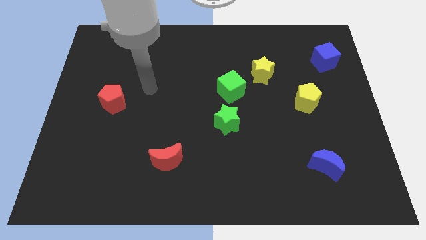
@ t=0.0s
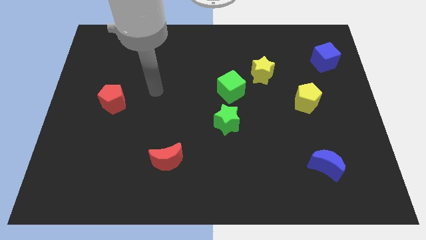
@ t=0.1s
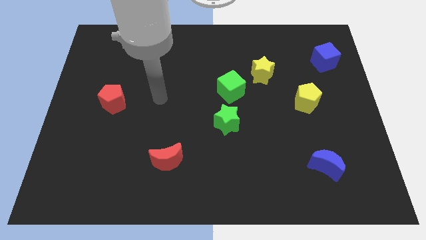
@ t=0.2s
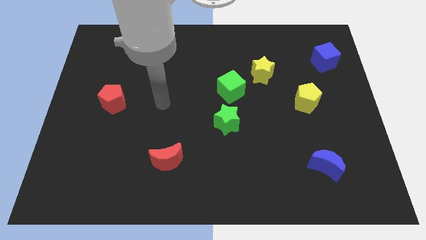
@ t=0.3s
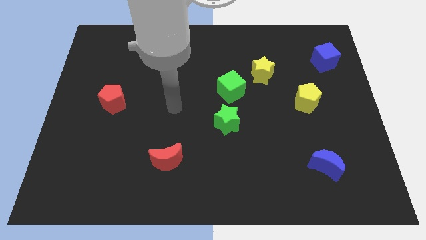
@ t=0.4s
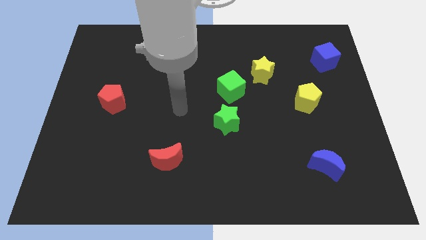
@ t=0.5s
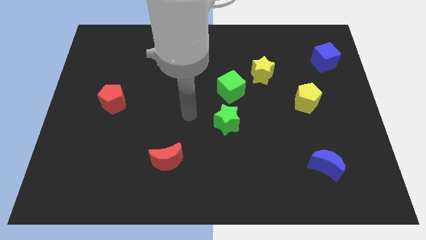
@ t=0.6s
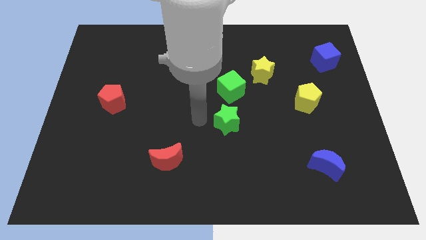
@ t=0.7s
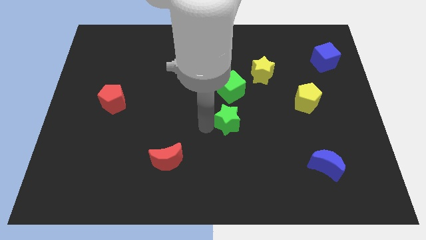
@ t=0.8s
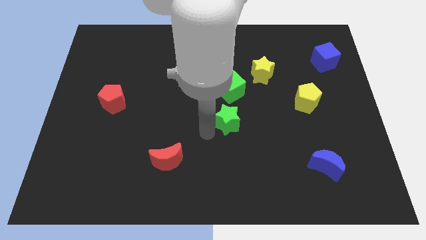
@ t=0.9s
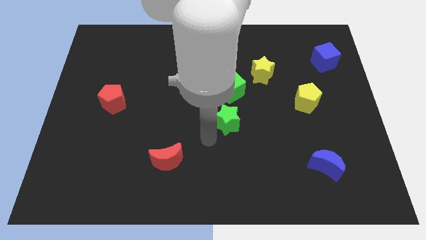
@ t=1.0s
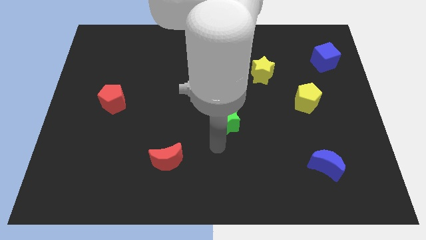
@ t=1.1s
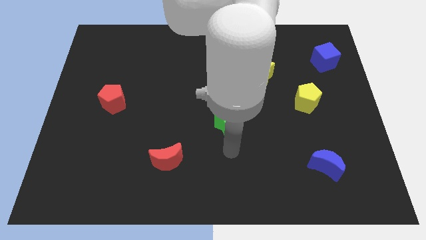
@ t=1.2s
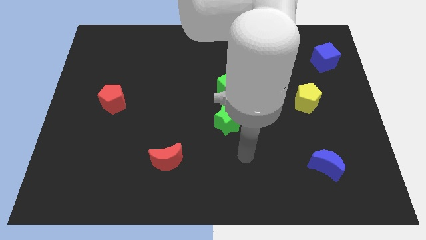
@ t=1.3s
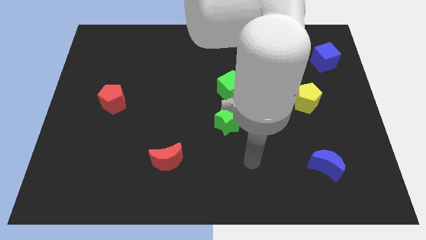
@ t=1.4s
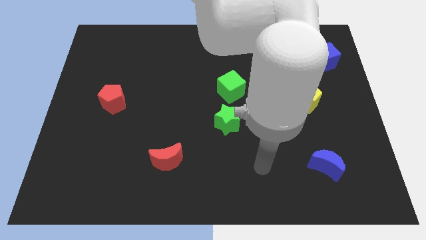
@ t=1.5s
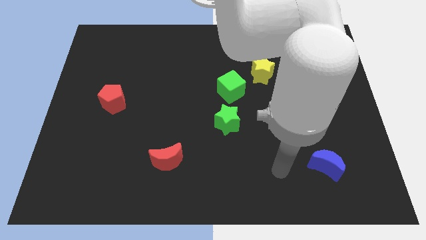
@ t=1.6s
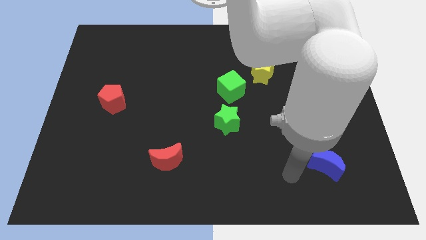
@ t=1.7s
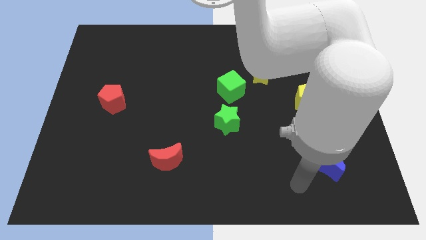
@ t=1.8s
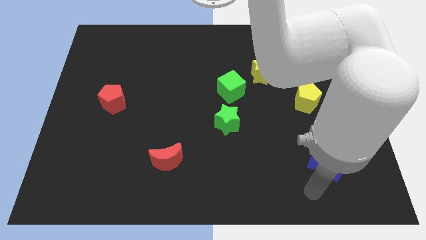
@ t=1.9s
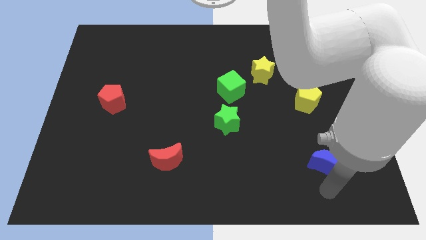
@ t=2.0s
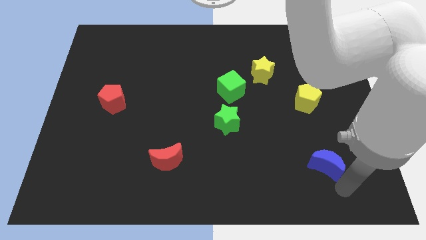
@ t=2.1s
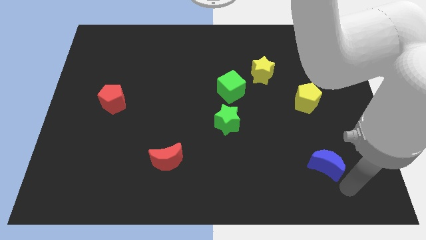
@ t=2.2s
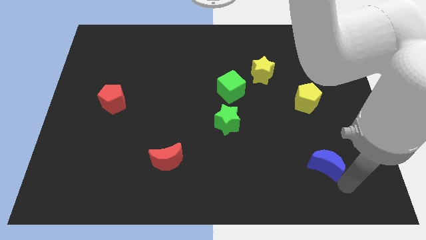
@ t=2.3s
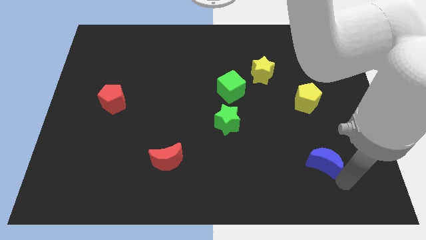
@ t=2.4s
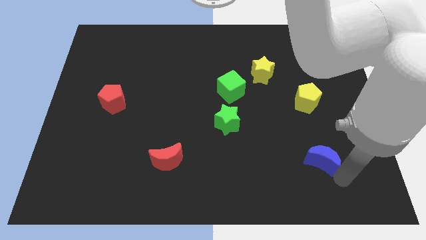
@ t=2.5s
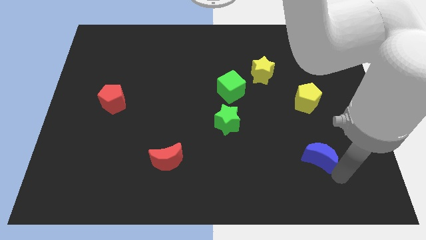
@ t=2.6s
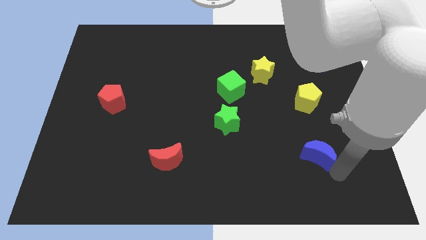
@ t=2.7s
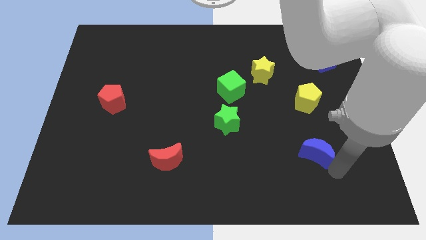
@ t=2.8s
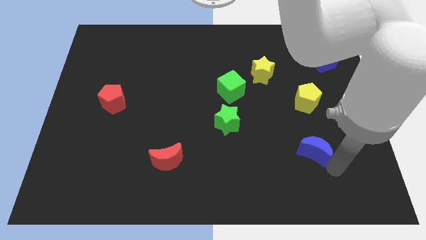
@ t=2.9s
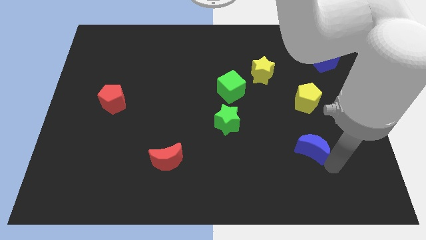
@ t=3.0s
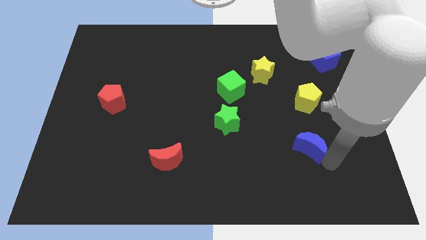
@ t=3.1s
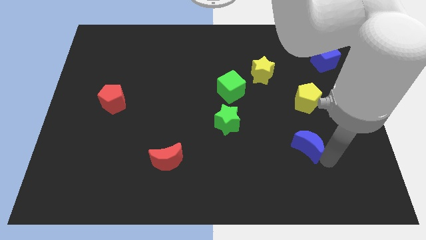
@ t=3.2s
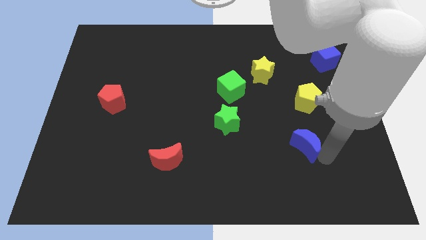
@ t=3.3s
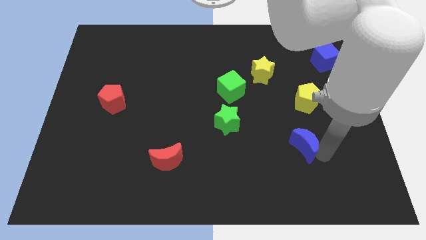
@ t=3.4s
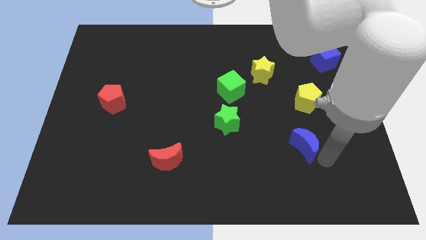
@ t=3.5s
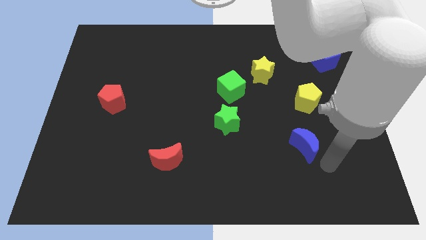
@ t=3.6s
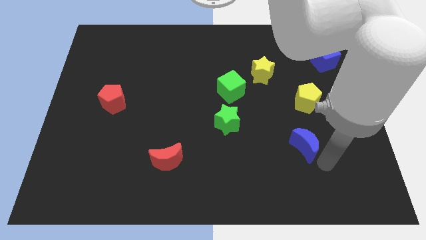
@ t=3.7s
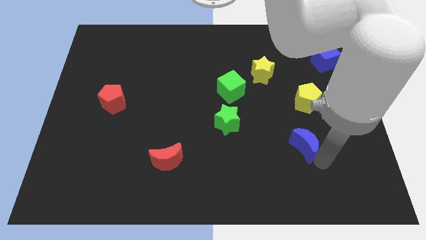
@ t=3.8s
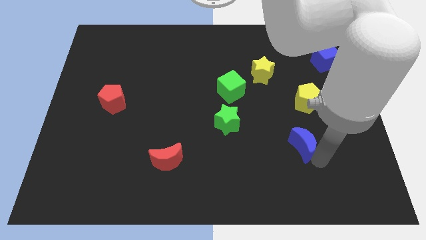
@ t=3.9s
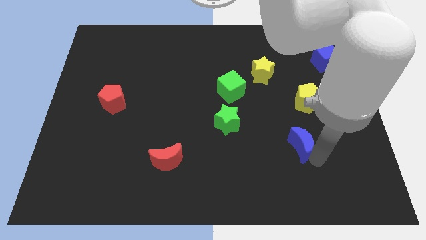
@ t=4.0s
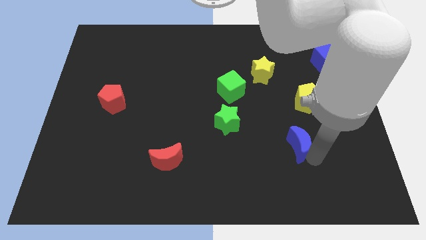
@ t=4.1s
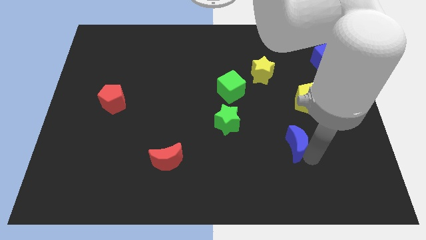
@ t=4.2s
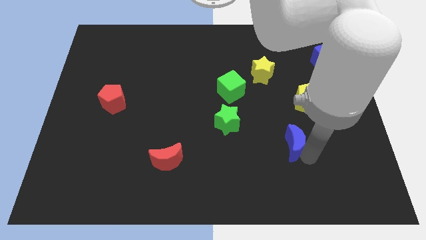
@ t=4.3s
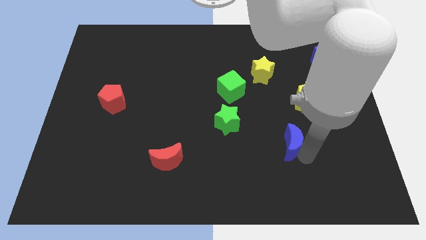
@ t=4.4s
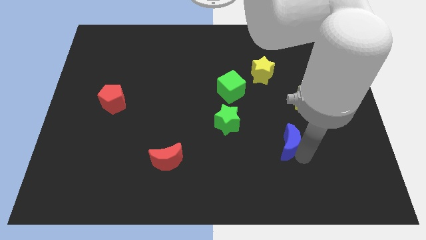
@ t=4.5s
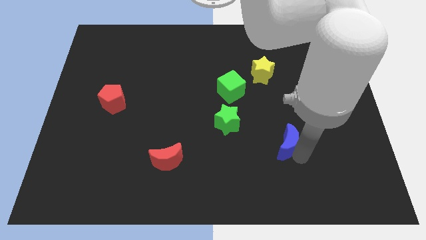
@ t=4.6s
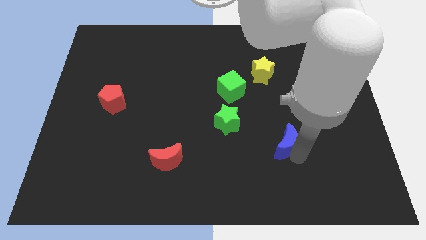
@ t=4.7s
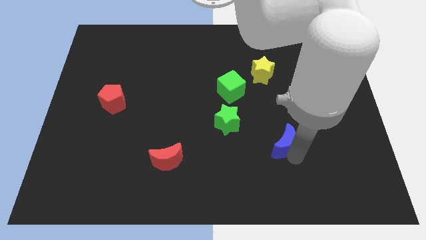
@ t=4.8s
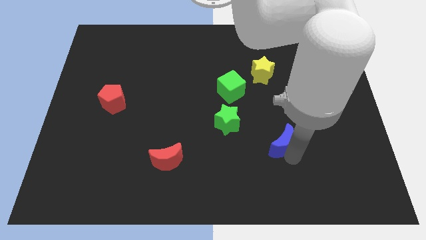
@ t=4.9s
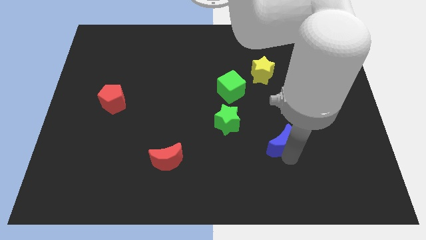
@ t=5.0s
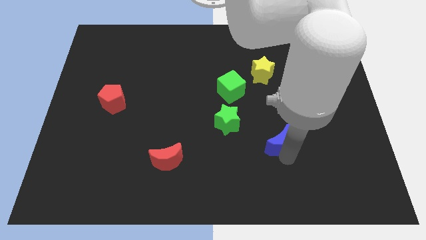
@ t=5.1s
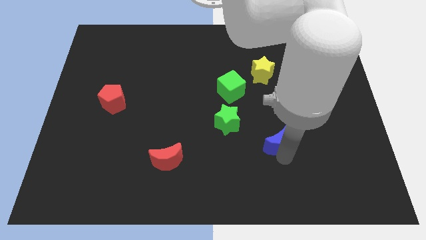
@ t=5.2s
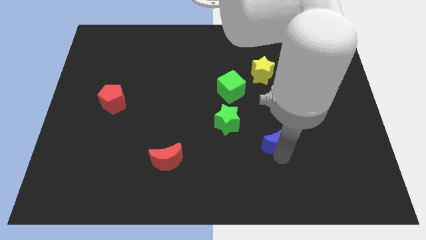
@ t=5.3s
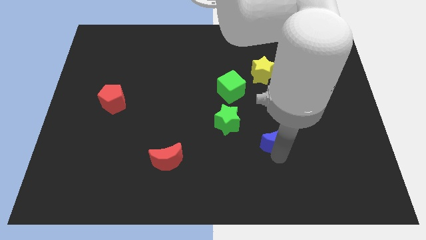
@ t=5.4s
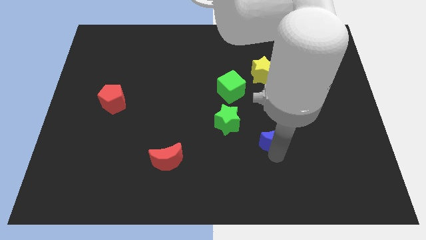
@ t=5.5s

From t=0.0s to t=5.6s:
put the blue moon to the right of the green star
